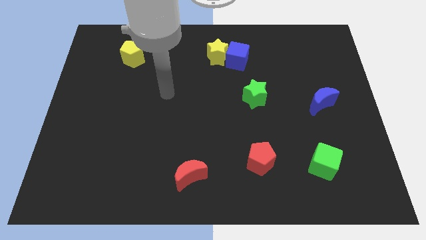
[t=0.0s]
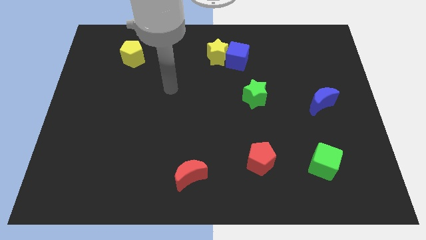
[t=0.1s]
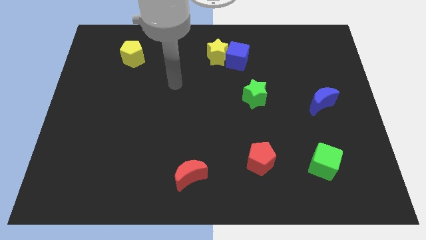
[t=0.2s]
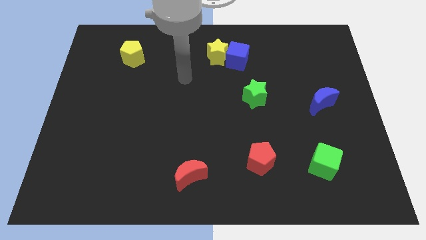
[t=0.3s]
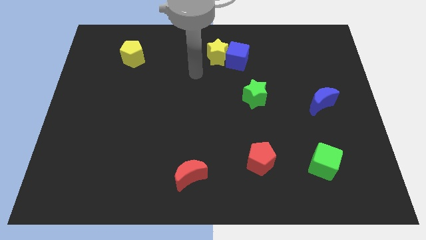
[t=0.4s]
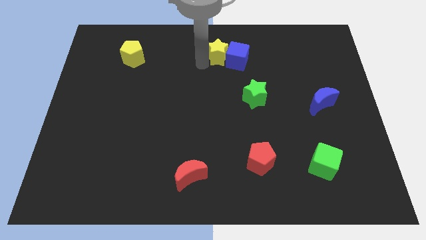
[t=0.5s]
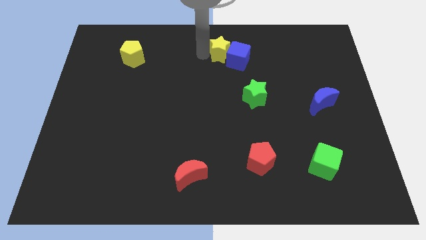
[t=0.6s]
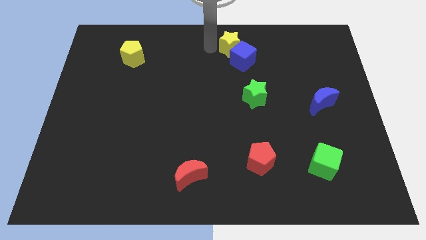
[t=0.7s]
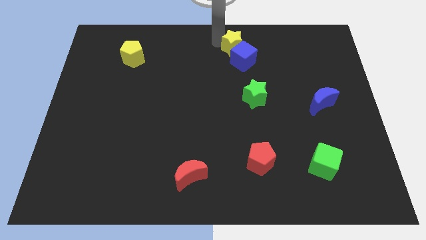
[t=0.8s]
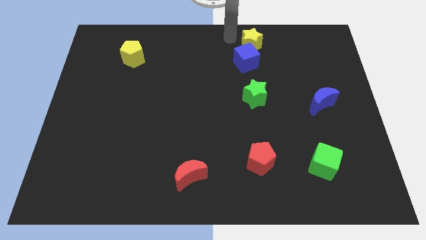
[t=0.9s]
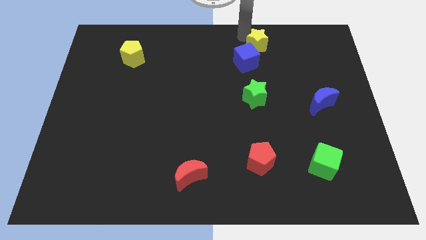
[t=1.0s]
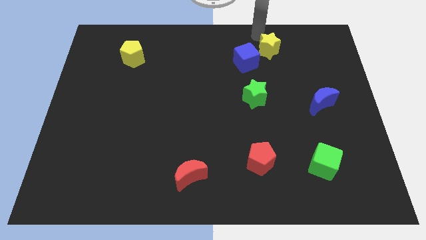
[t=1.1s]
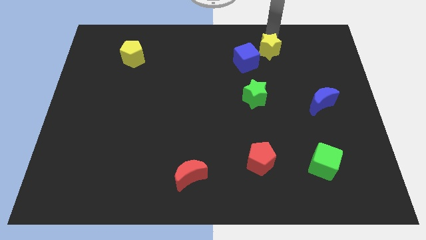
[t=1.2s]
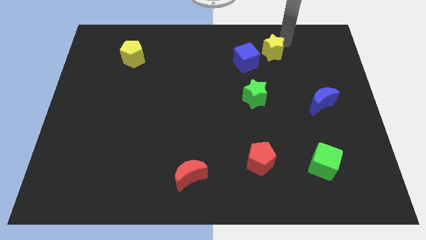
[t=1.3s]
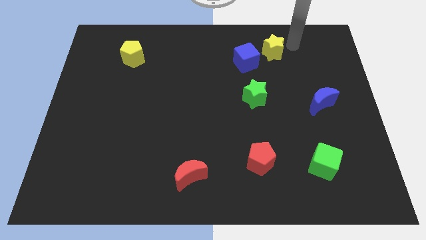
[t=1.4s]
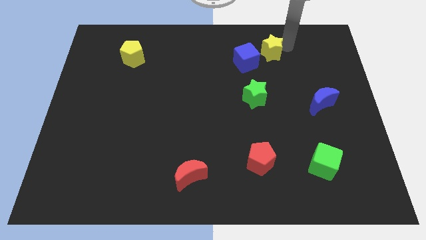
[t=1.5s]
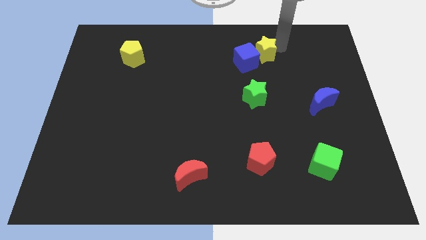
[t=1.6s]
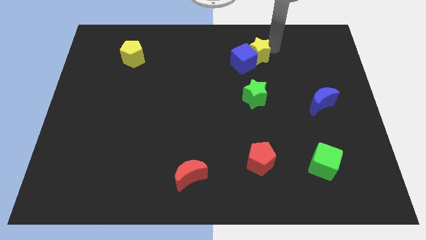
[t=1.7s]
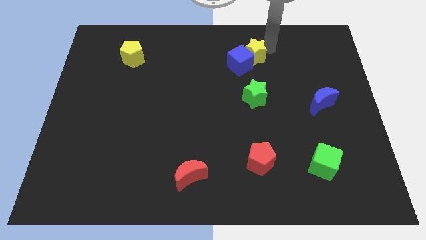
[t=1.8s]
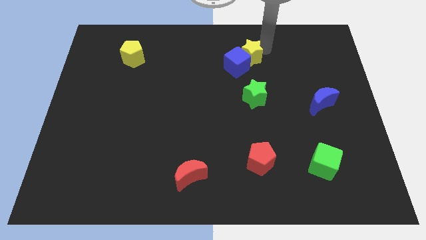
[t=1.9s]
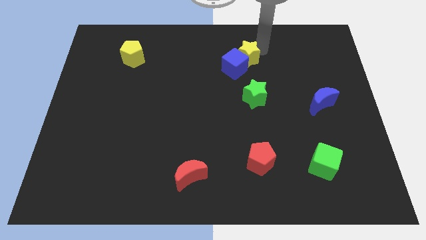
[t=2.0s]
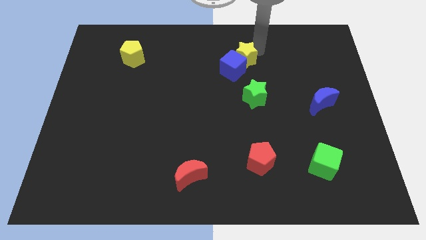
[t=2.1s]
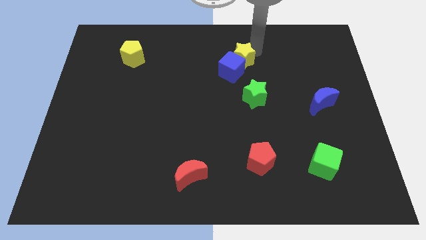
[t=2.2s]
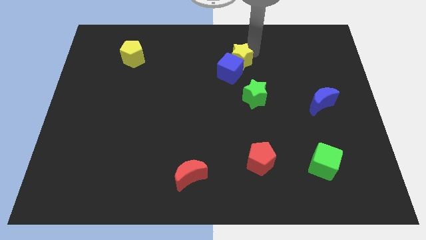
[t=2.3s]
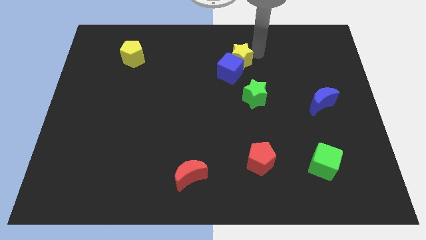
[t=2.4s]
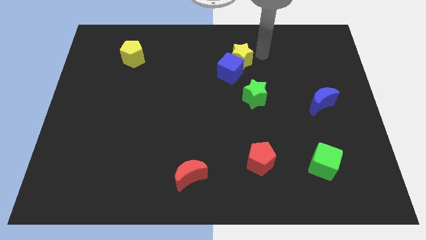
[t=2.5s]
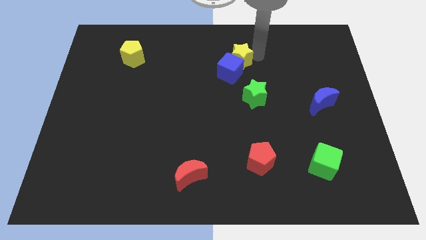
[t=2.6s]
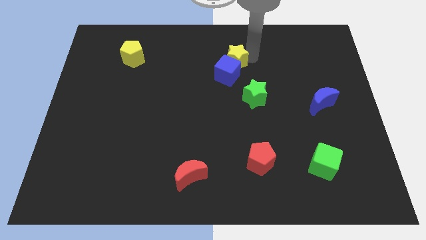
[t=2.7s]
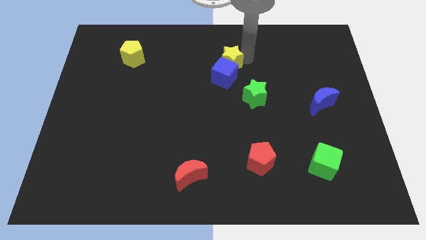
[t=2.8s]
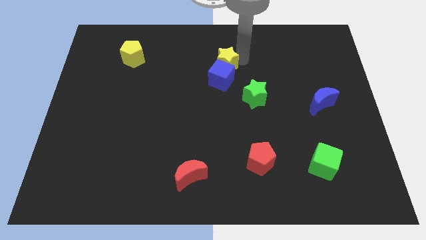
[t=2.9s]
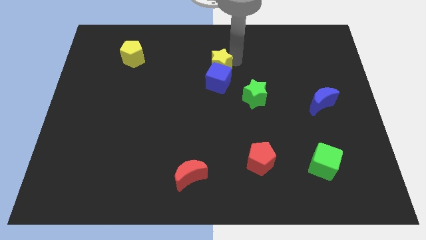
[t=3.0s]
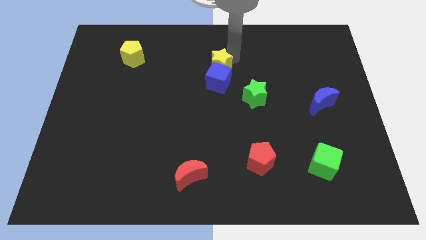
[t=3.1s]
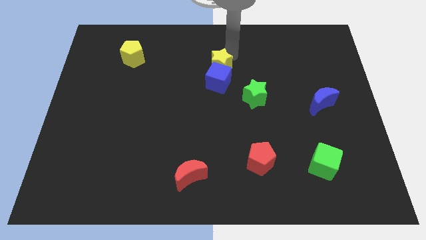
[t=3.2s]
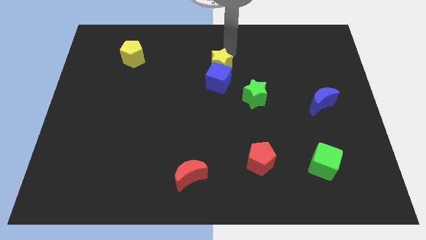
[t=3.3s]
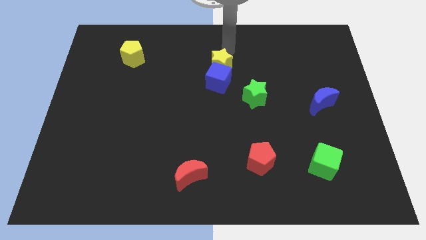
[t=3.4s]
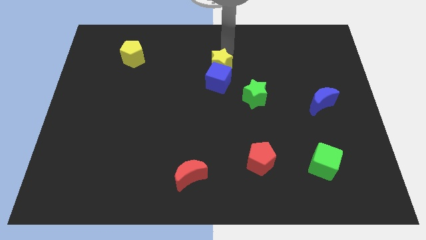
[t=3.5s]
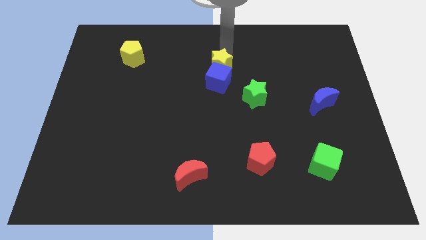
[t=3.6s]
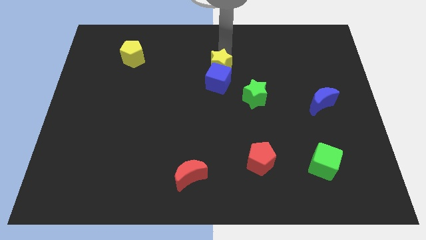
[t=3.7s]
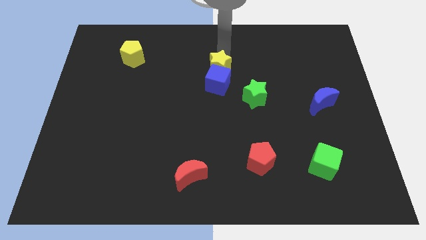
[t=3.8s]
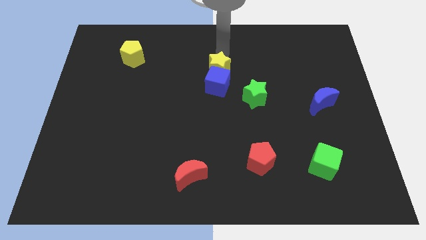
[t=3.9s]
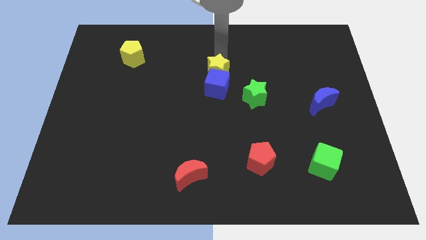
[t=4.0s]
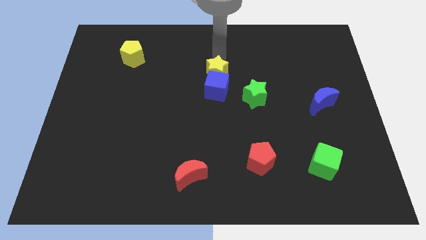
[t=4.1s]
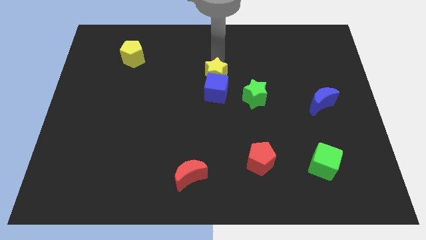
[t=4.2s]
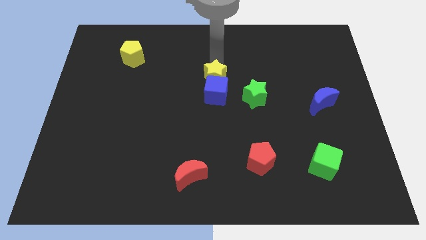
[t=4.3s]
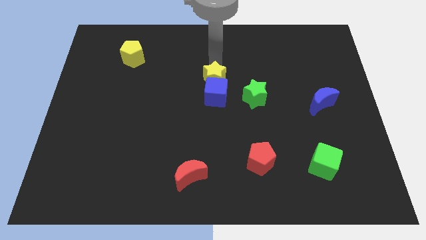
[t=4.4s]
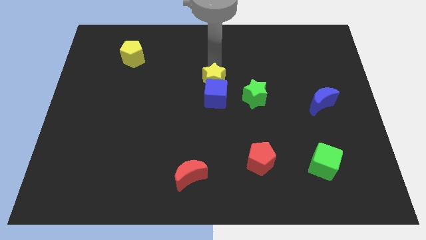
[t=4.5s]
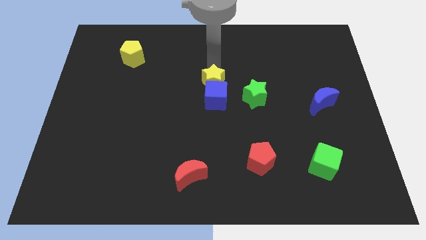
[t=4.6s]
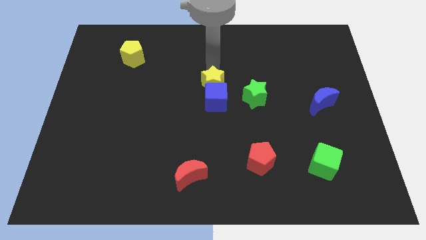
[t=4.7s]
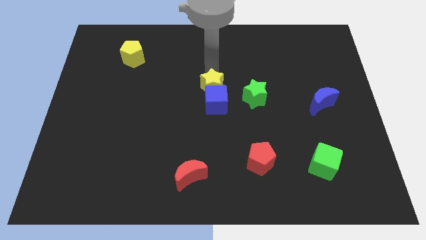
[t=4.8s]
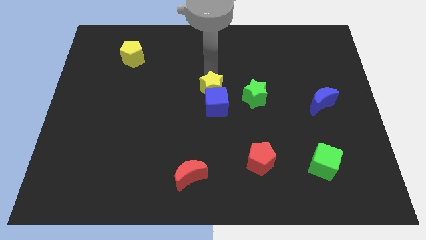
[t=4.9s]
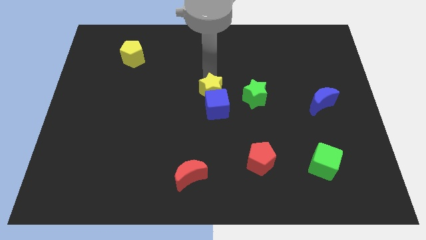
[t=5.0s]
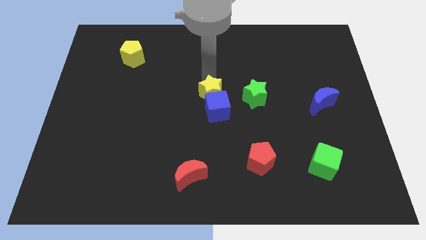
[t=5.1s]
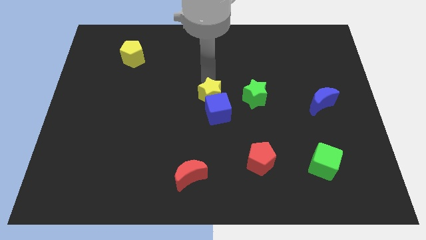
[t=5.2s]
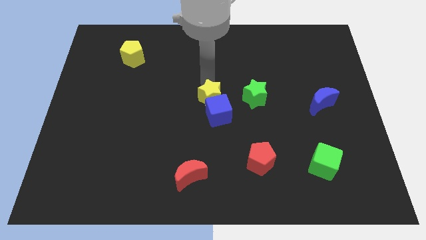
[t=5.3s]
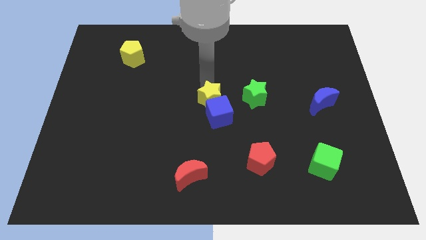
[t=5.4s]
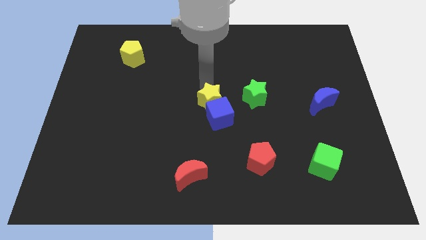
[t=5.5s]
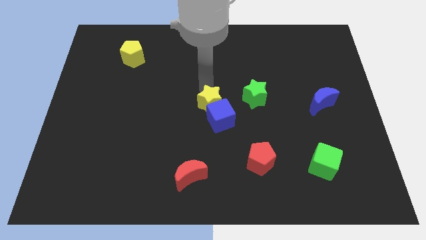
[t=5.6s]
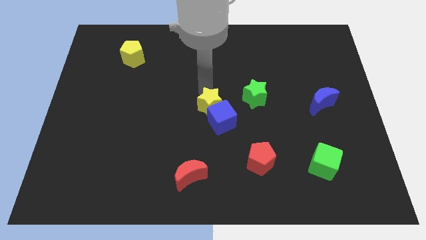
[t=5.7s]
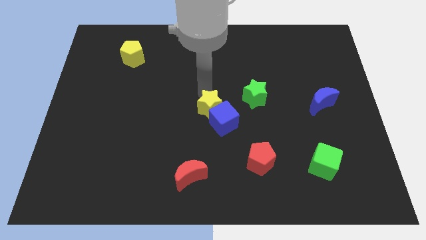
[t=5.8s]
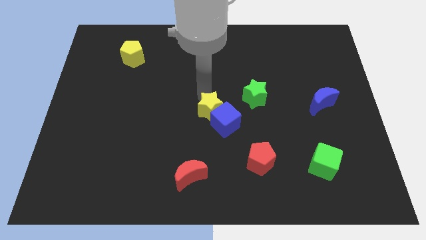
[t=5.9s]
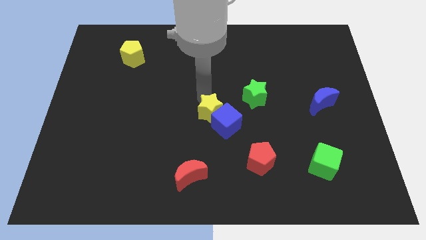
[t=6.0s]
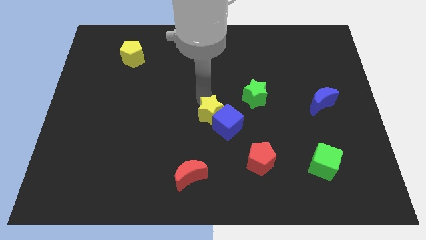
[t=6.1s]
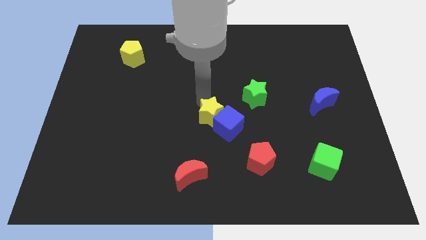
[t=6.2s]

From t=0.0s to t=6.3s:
slide the yellow star downwards

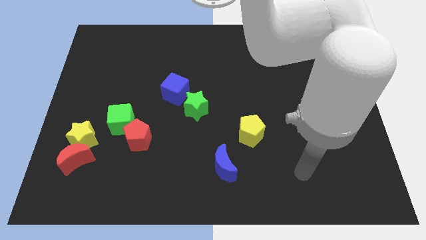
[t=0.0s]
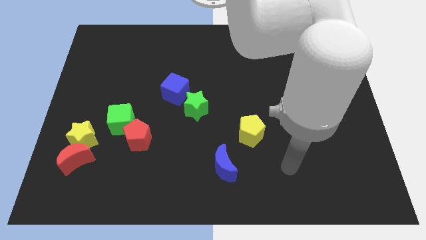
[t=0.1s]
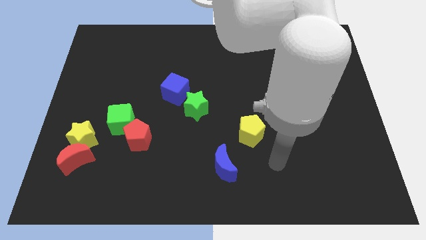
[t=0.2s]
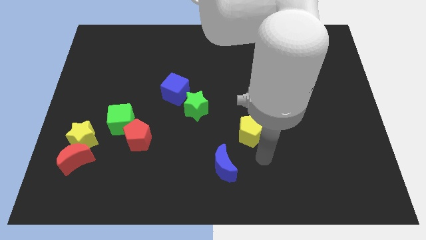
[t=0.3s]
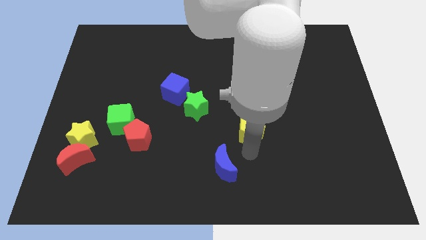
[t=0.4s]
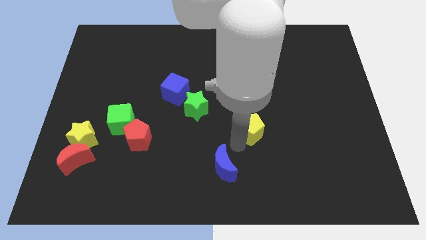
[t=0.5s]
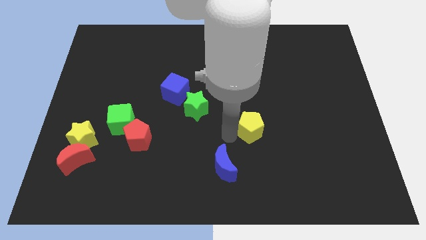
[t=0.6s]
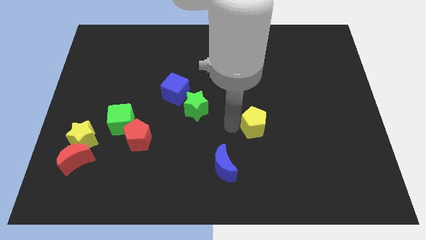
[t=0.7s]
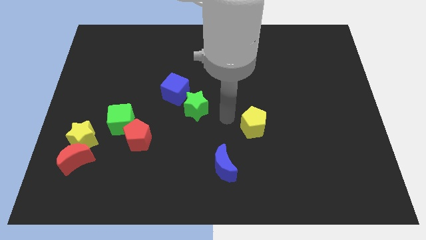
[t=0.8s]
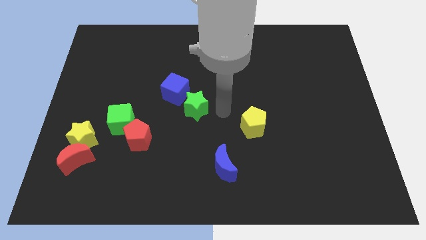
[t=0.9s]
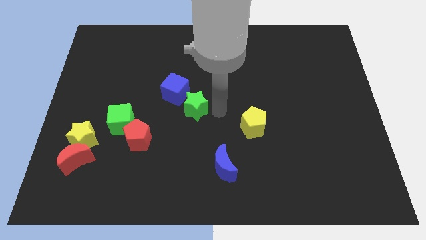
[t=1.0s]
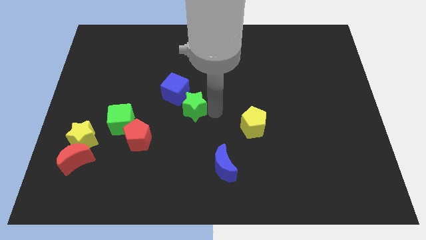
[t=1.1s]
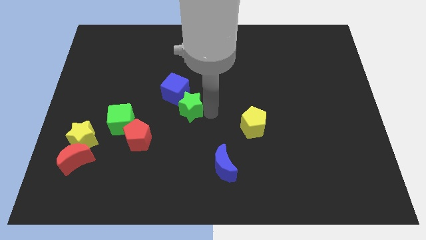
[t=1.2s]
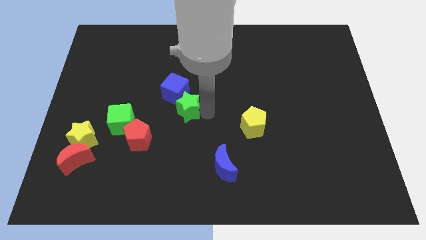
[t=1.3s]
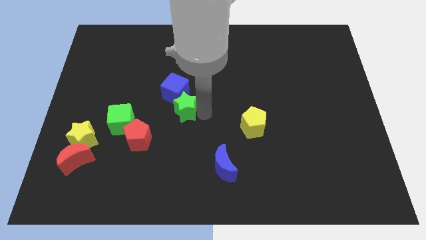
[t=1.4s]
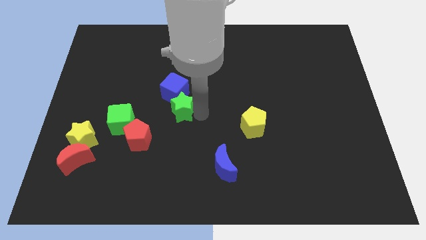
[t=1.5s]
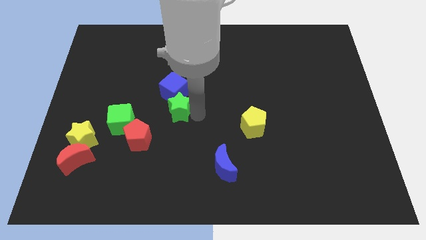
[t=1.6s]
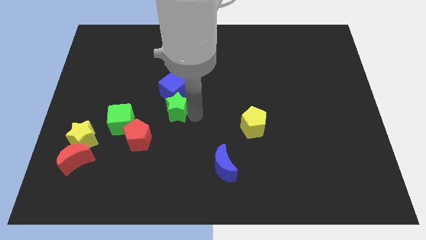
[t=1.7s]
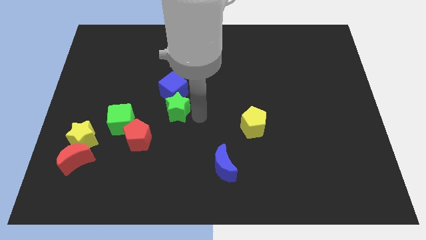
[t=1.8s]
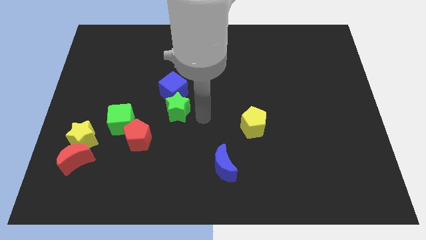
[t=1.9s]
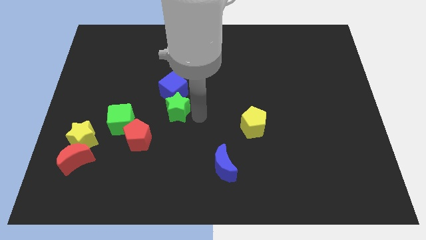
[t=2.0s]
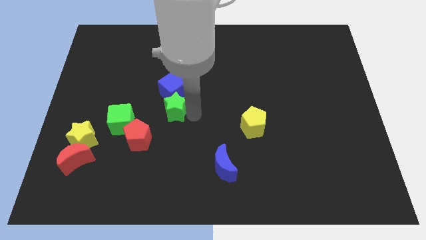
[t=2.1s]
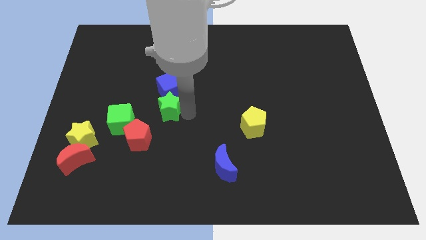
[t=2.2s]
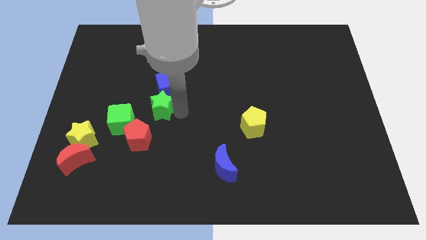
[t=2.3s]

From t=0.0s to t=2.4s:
slightly move the green star to the left
